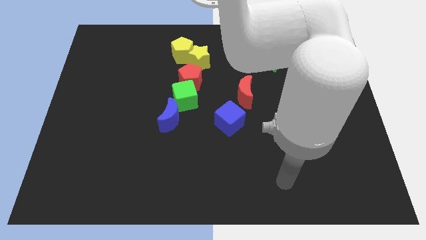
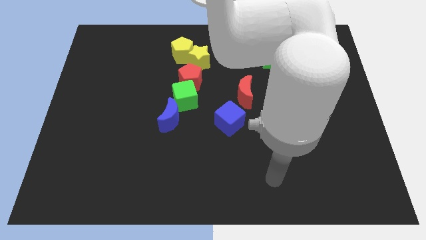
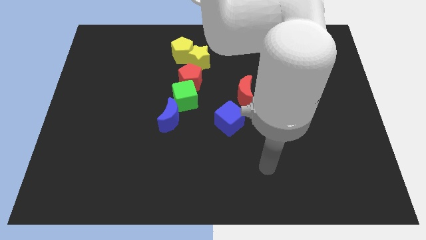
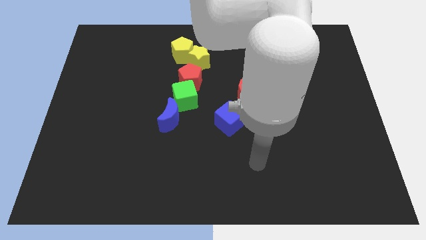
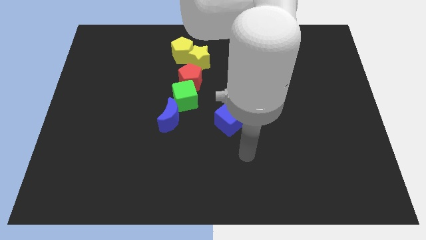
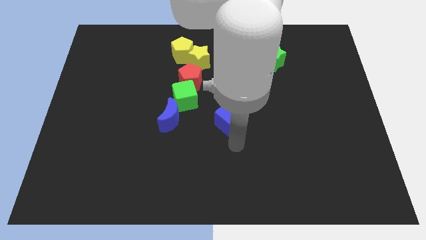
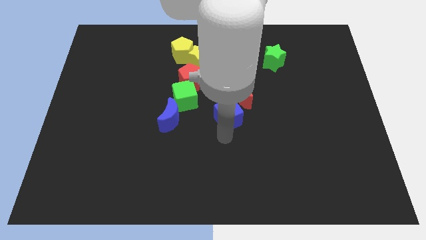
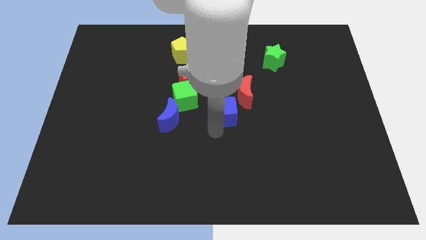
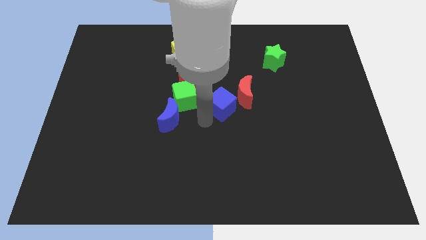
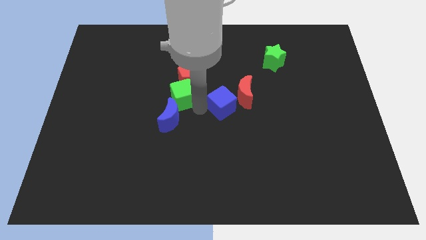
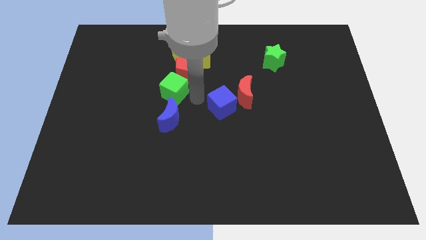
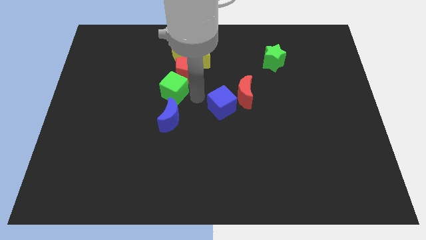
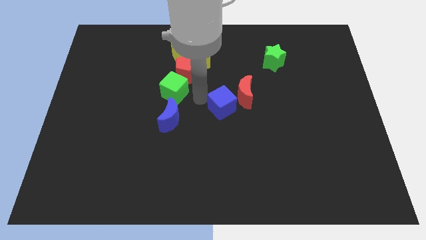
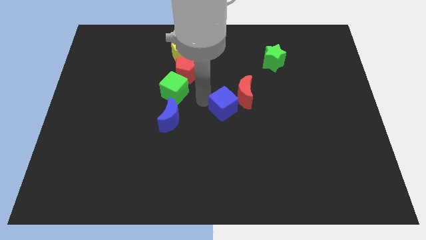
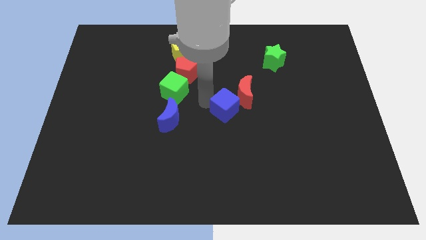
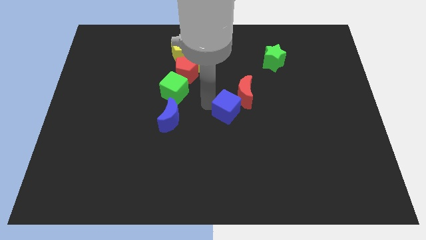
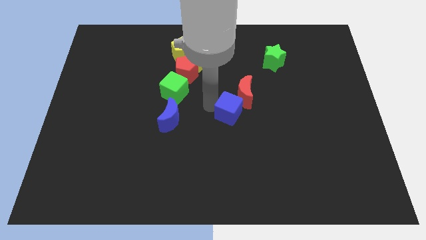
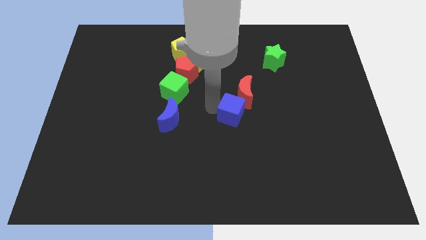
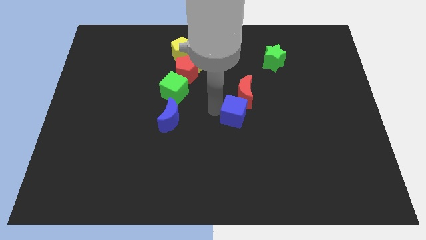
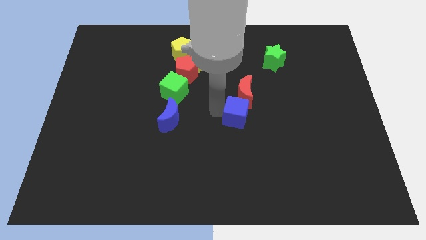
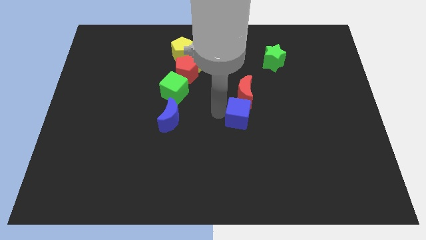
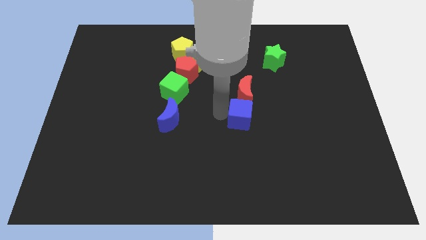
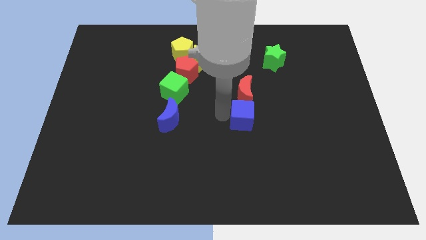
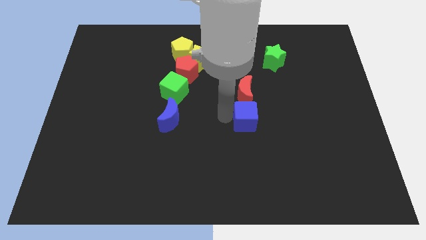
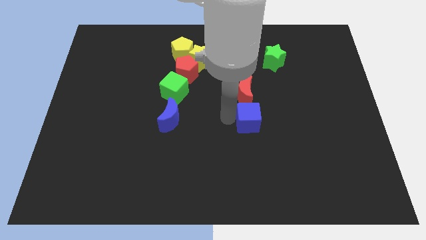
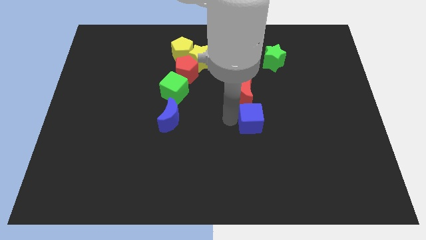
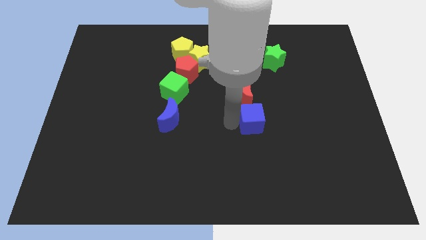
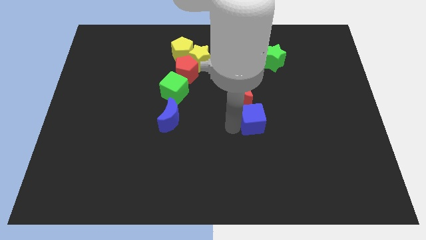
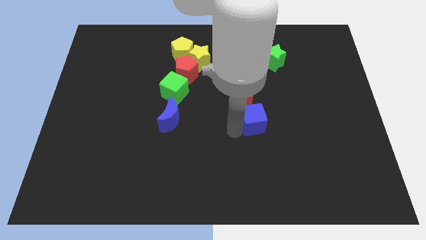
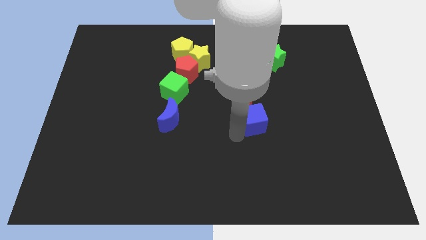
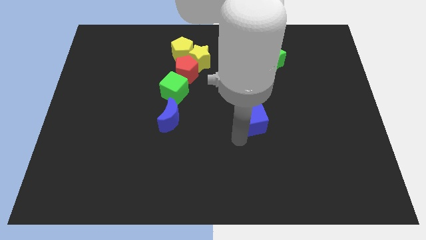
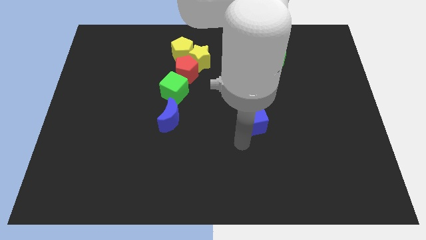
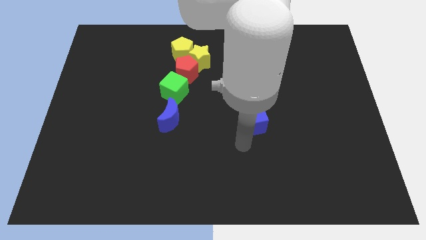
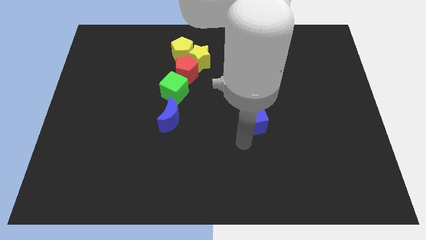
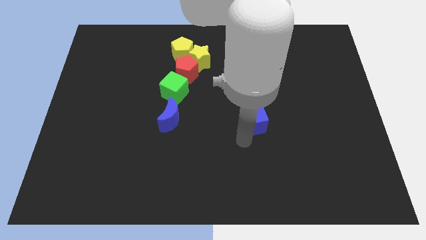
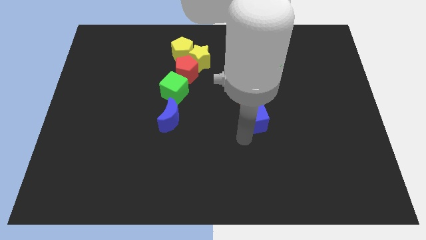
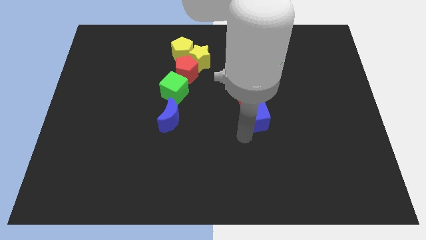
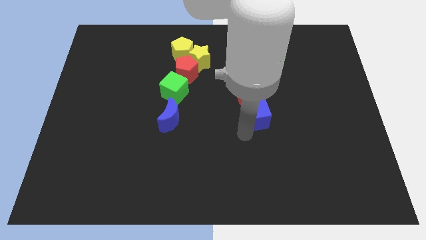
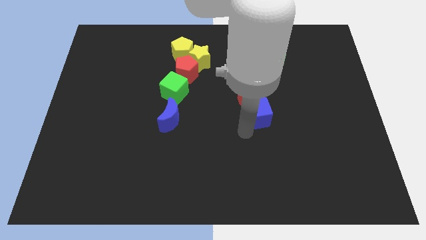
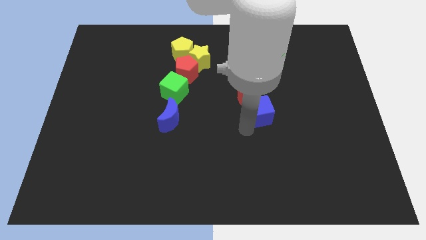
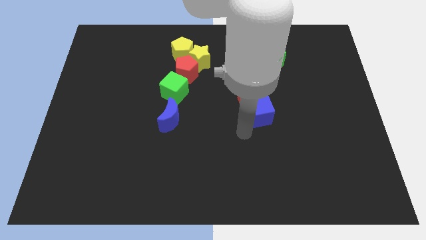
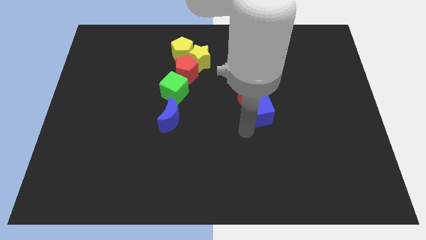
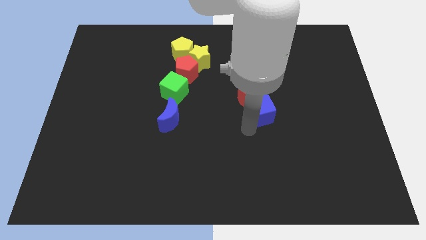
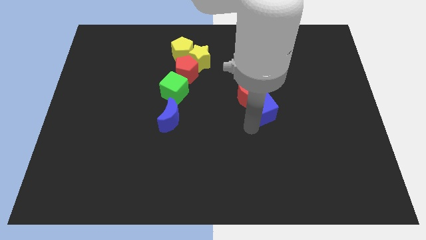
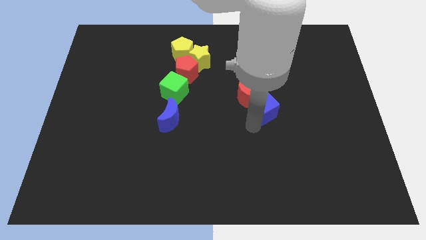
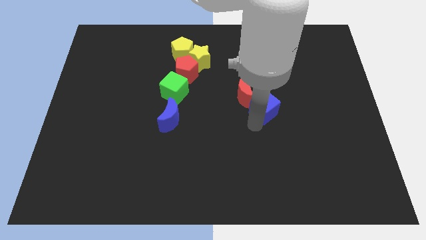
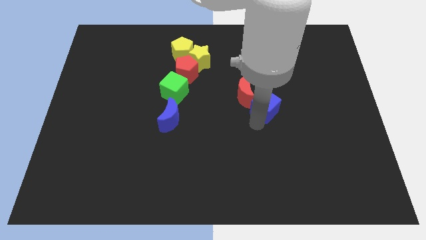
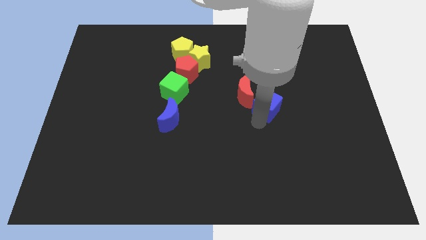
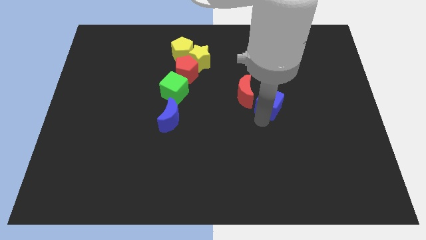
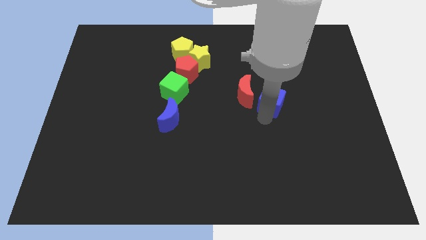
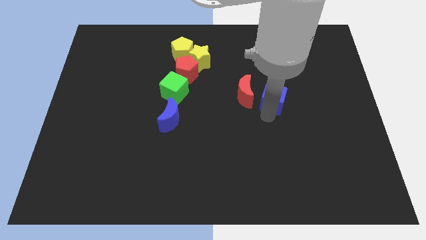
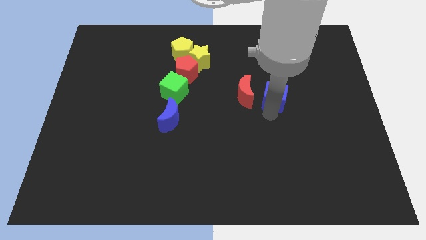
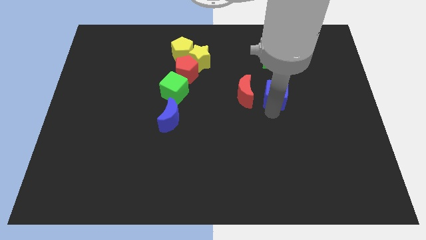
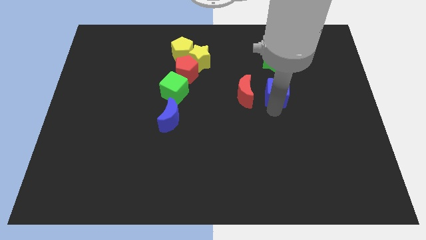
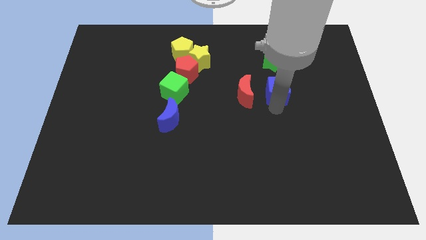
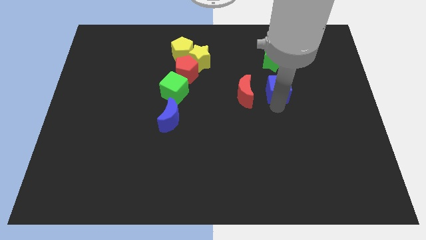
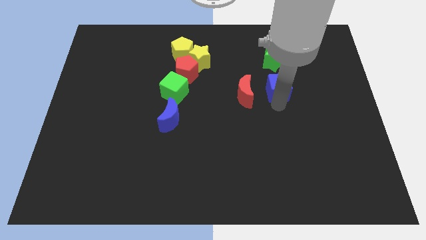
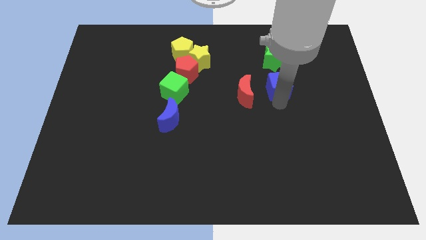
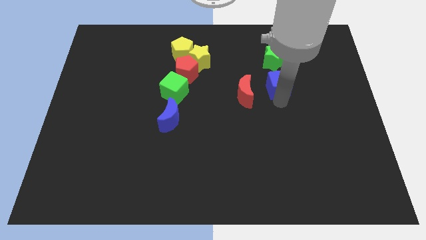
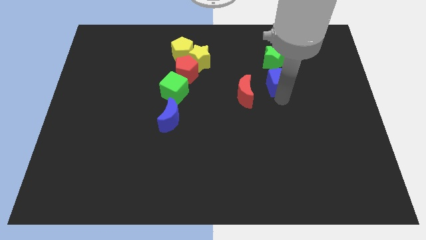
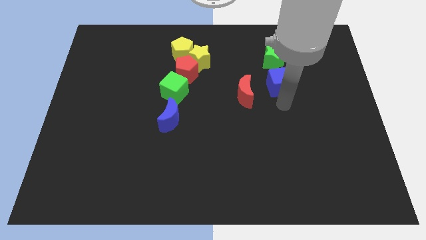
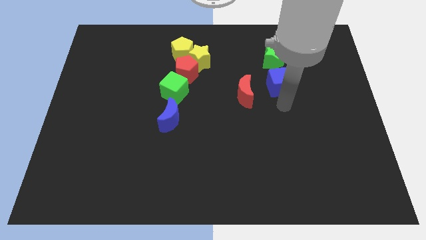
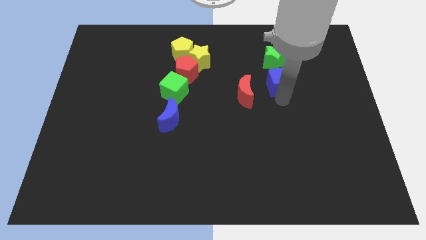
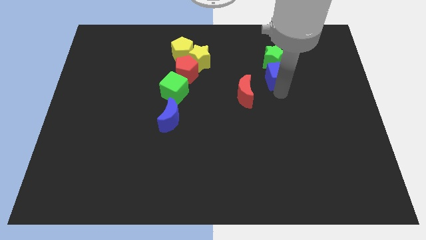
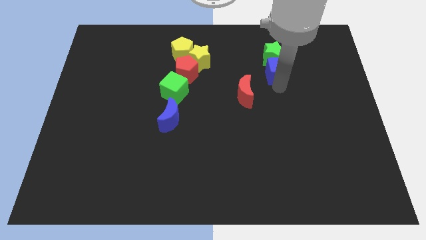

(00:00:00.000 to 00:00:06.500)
slide the blue cube to the green star

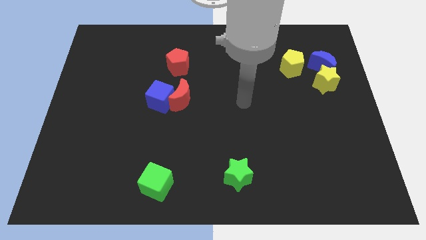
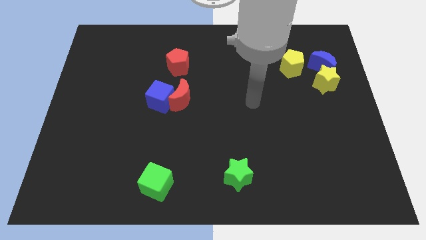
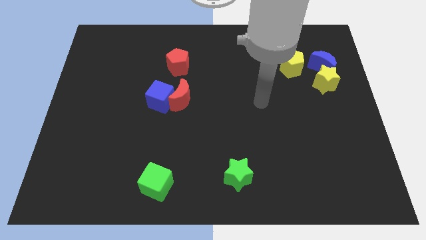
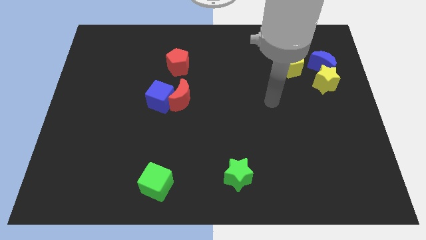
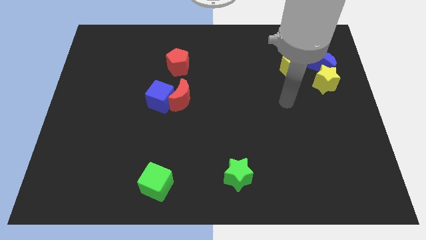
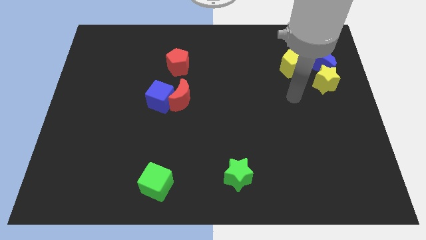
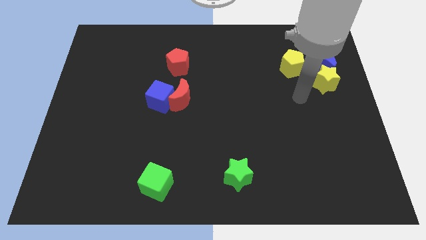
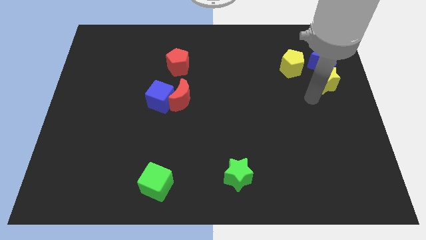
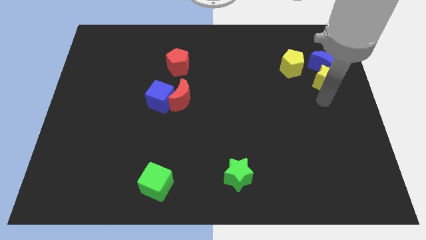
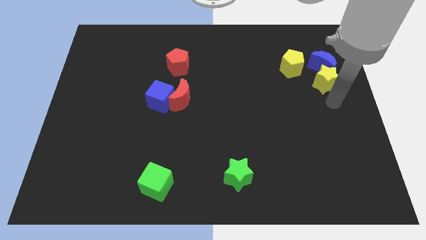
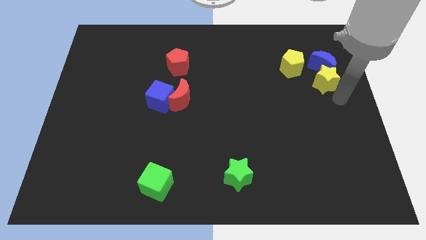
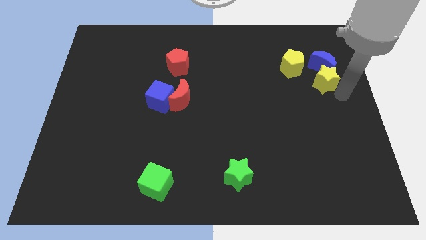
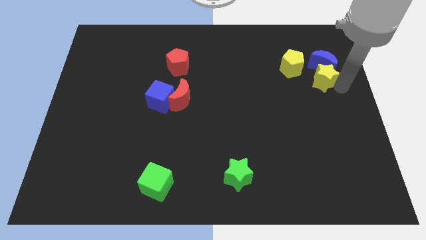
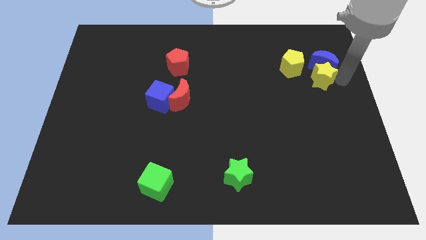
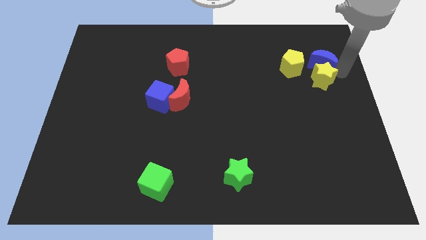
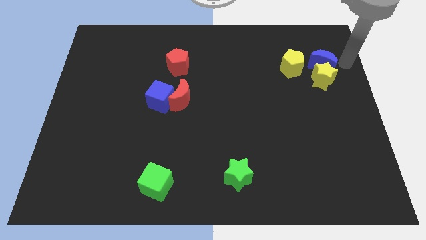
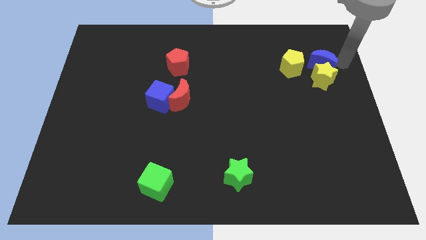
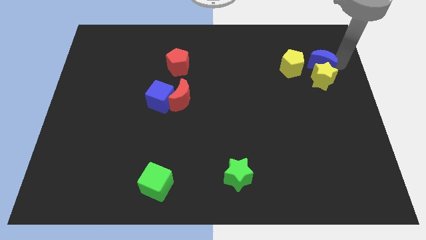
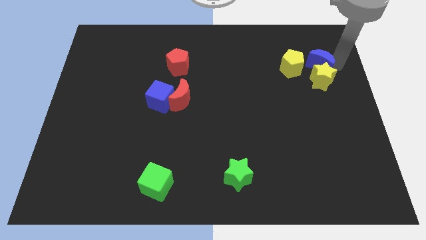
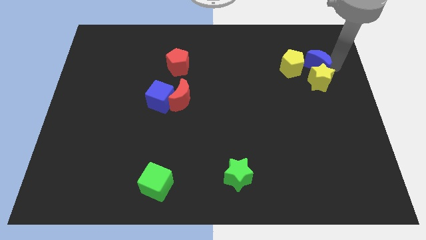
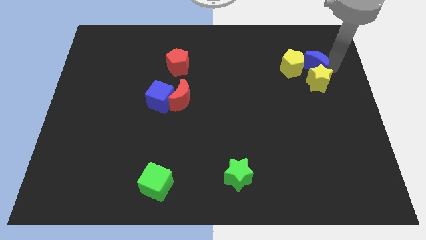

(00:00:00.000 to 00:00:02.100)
slide the blue moon towards the yellow pentagon
